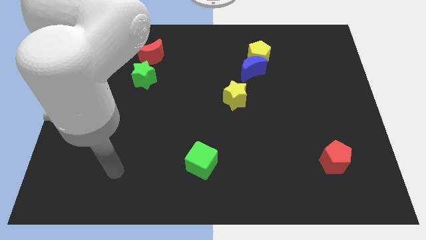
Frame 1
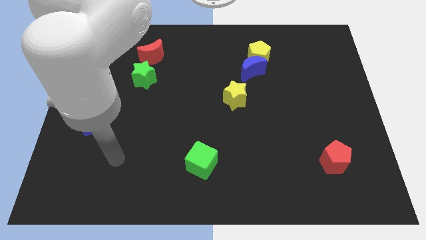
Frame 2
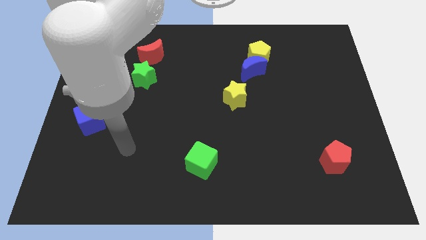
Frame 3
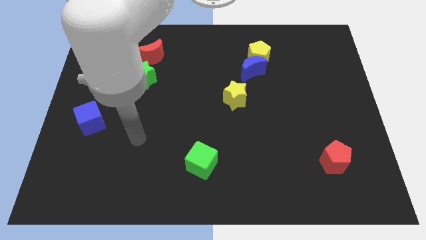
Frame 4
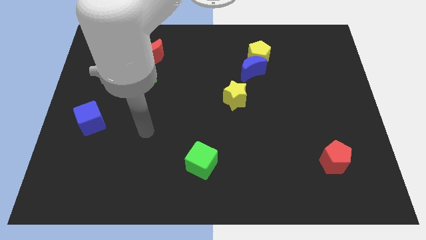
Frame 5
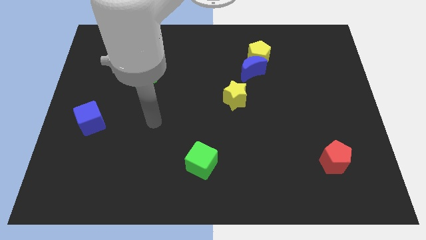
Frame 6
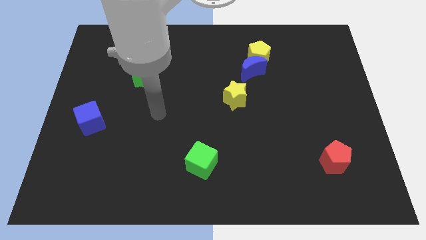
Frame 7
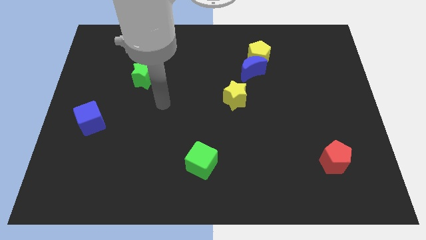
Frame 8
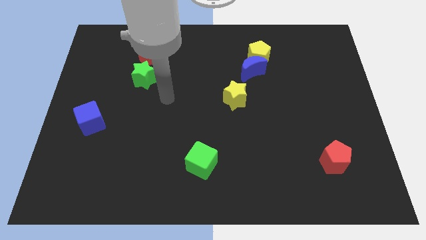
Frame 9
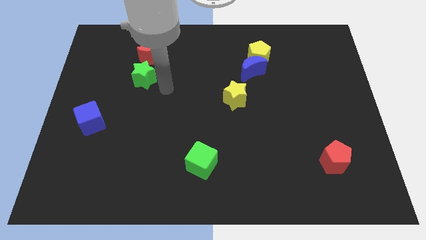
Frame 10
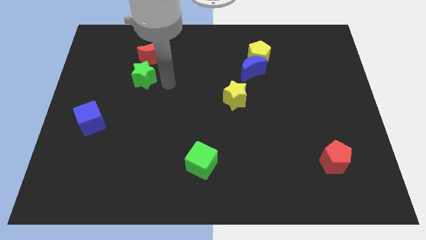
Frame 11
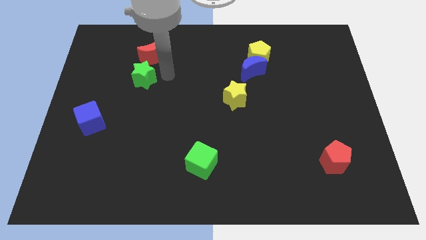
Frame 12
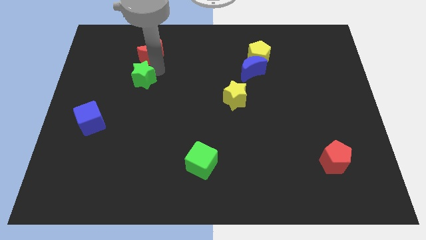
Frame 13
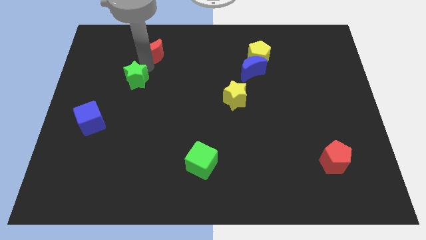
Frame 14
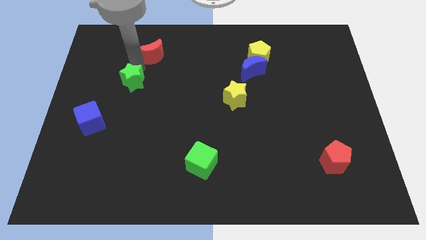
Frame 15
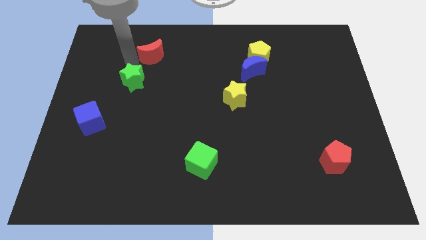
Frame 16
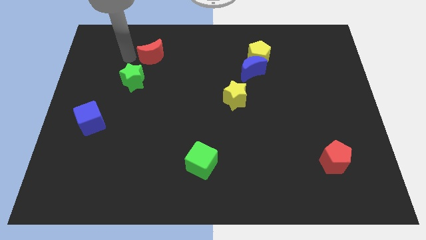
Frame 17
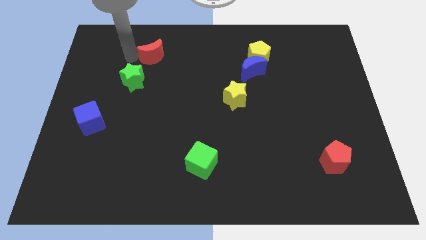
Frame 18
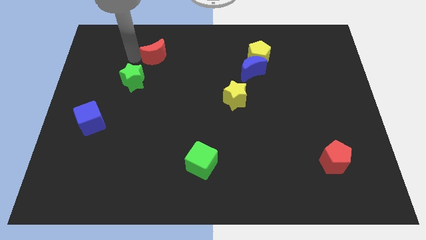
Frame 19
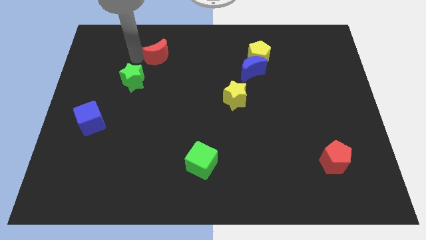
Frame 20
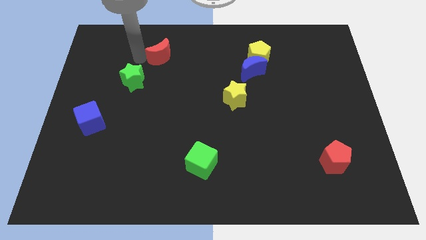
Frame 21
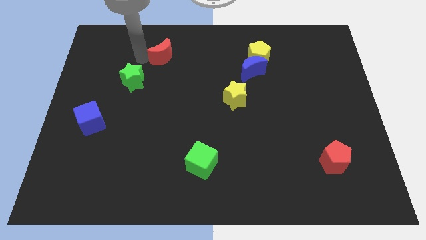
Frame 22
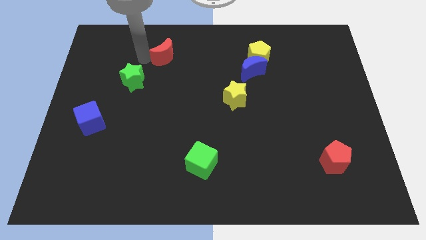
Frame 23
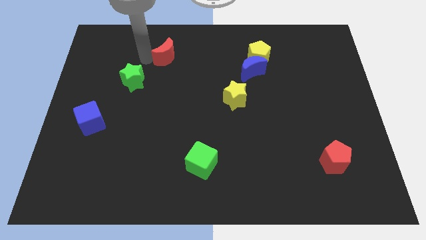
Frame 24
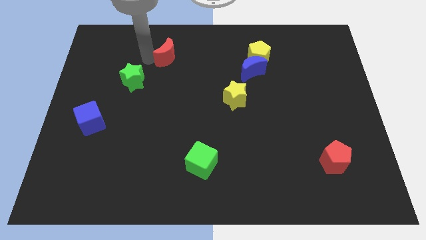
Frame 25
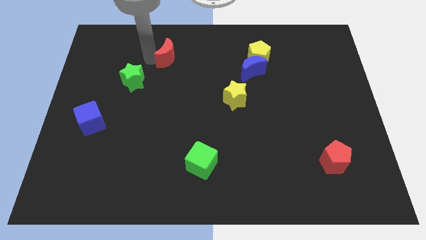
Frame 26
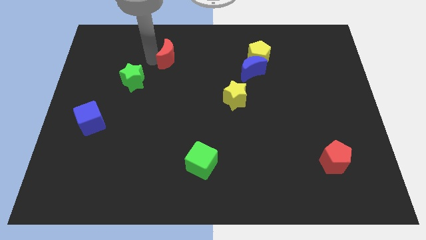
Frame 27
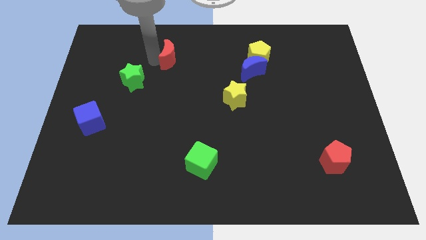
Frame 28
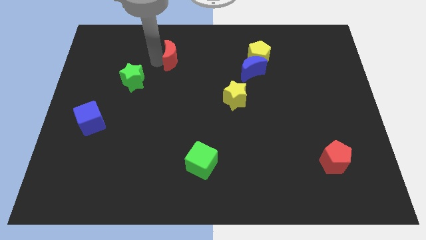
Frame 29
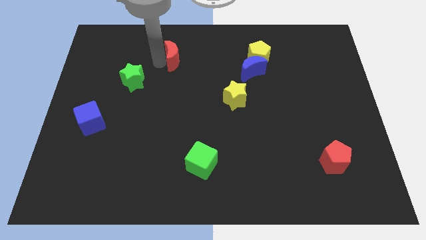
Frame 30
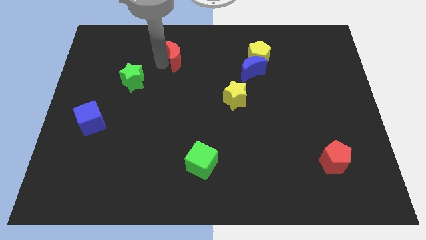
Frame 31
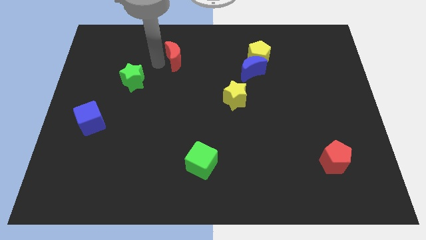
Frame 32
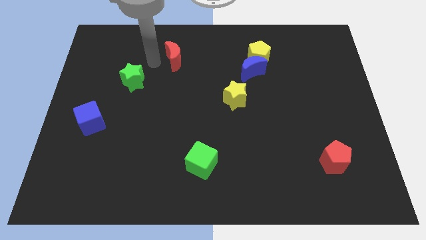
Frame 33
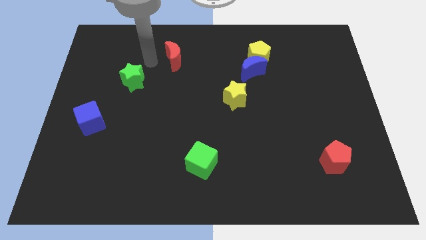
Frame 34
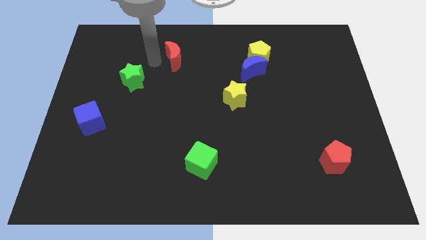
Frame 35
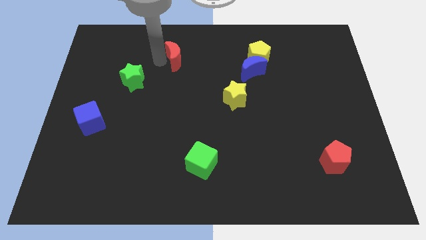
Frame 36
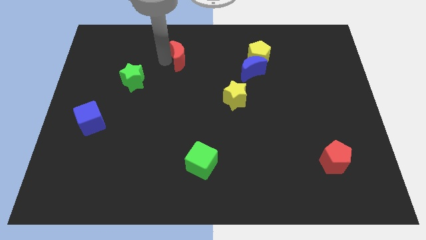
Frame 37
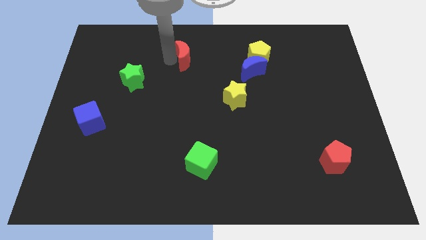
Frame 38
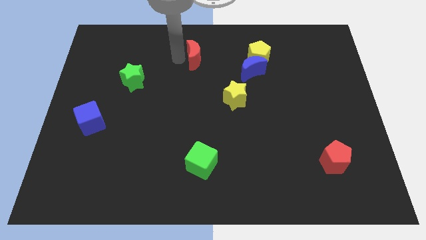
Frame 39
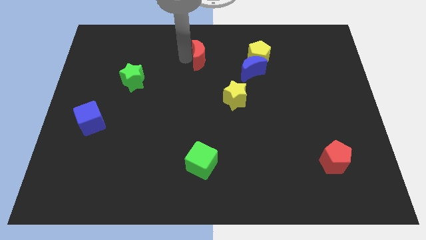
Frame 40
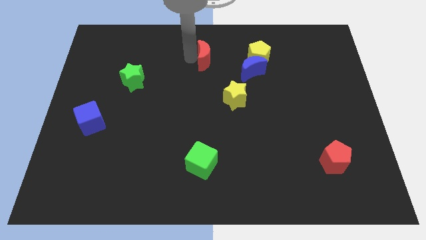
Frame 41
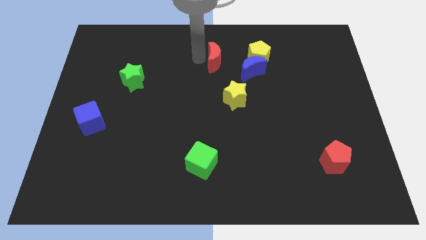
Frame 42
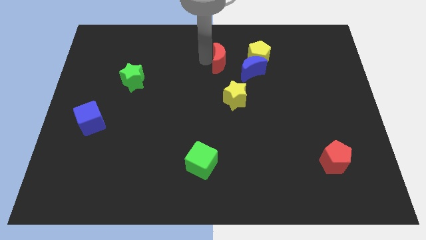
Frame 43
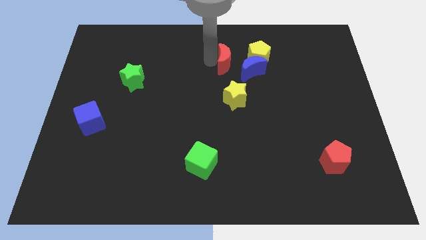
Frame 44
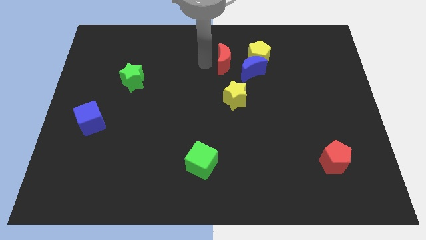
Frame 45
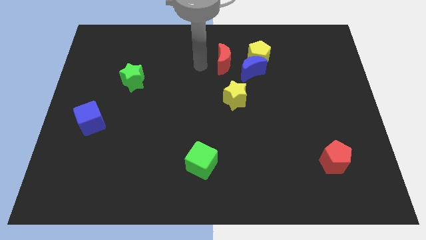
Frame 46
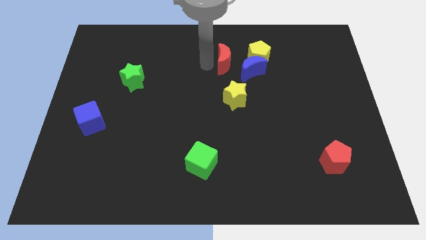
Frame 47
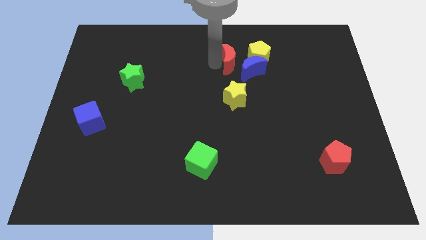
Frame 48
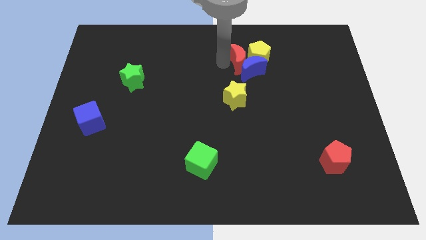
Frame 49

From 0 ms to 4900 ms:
push the red moon next to the yellow pentagon

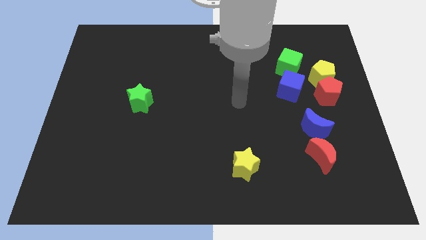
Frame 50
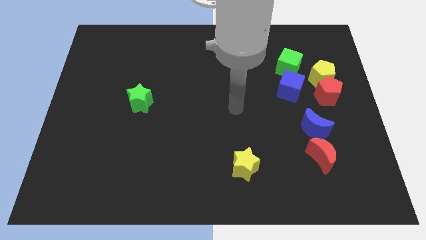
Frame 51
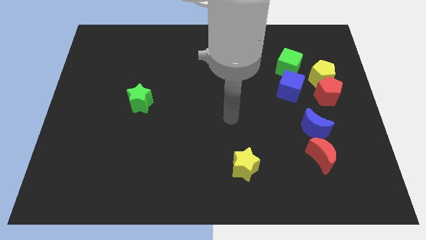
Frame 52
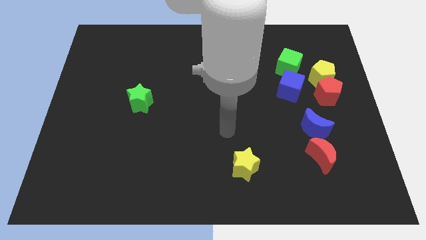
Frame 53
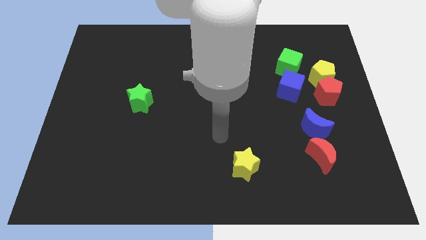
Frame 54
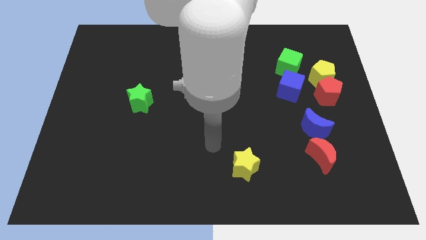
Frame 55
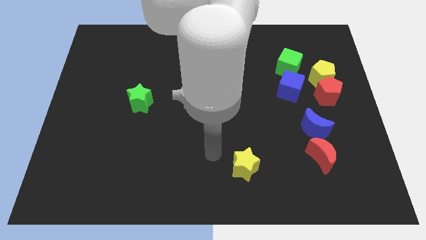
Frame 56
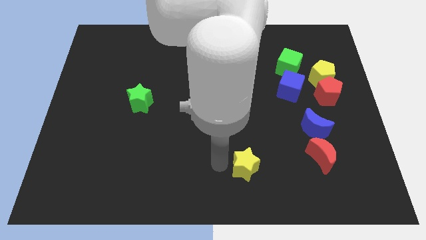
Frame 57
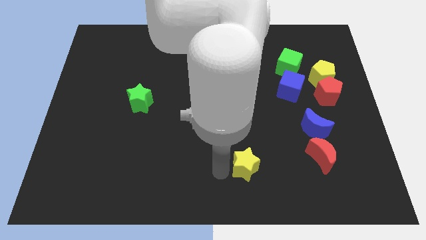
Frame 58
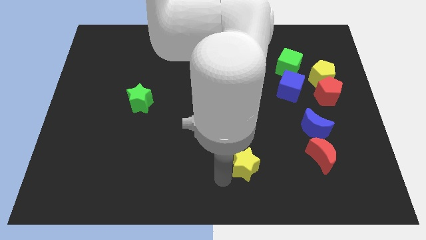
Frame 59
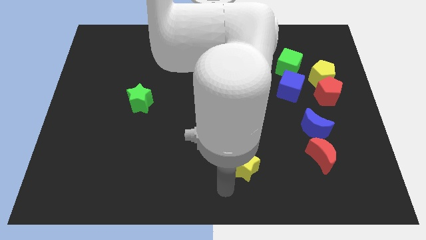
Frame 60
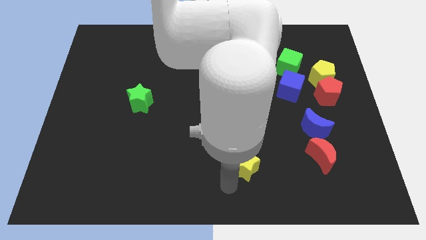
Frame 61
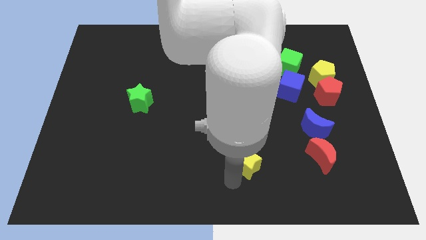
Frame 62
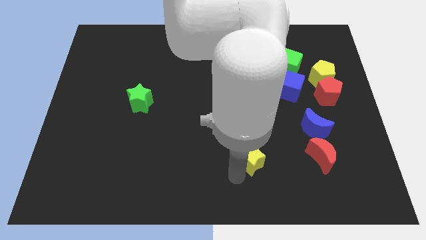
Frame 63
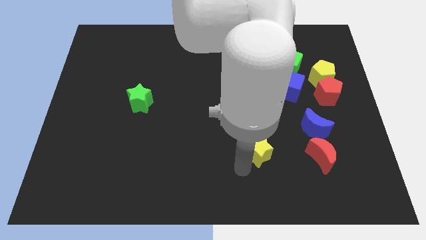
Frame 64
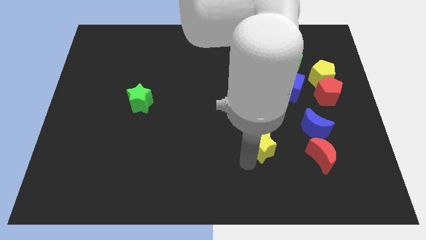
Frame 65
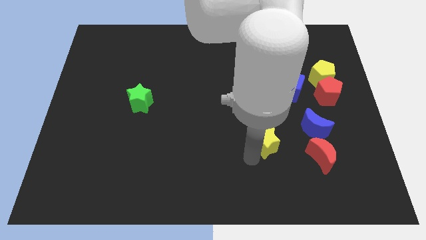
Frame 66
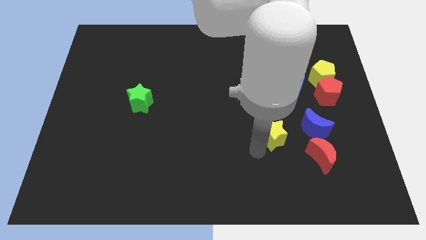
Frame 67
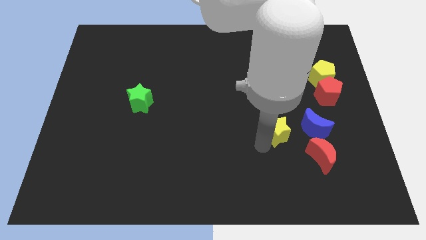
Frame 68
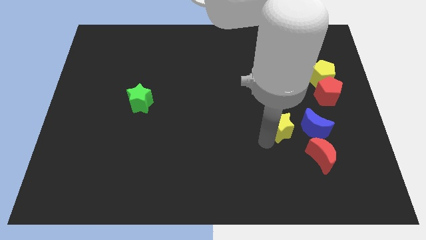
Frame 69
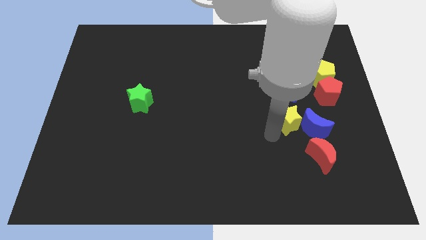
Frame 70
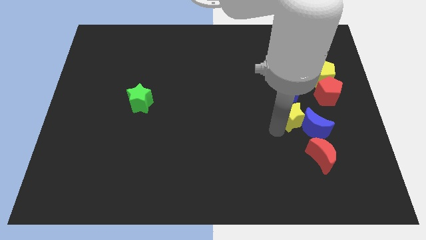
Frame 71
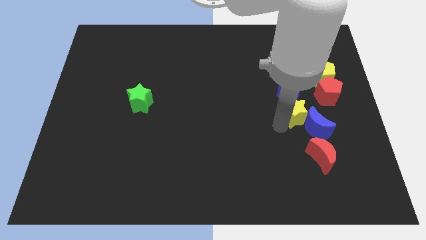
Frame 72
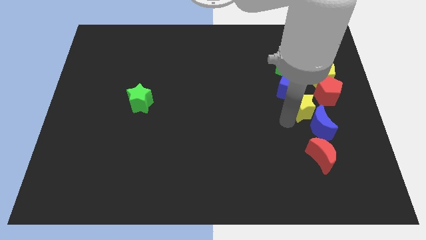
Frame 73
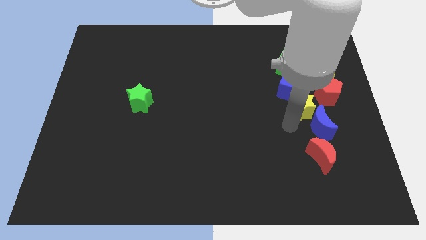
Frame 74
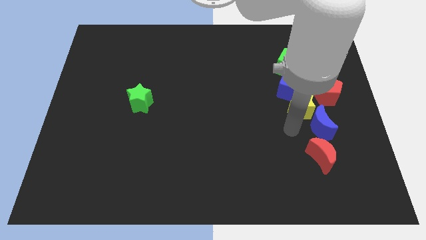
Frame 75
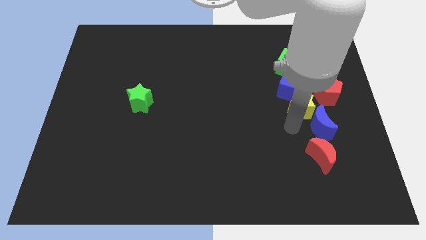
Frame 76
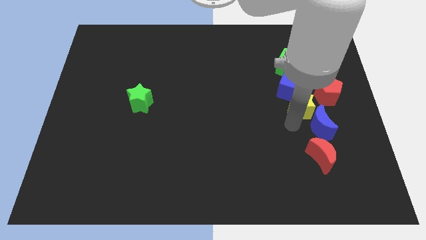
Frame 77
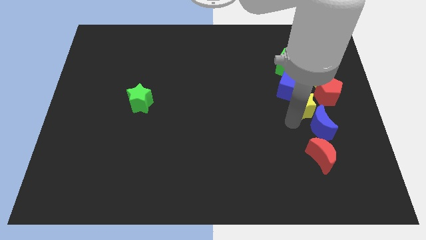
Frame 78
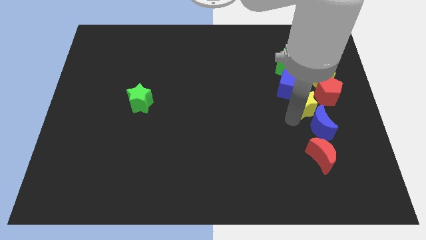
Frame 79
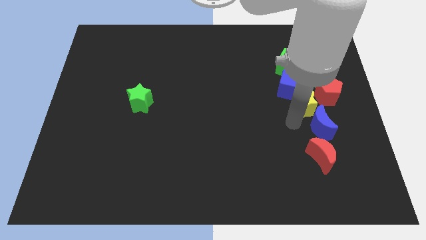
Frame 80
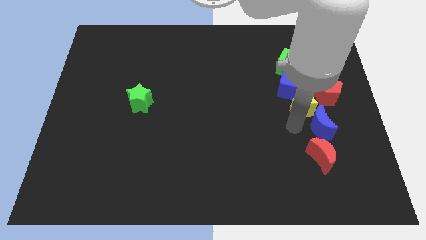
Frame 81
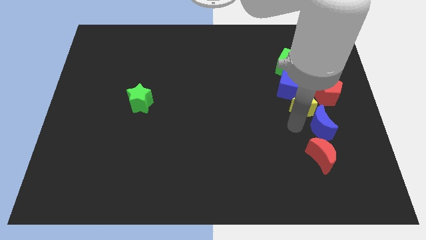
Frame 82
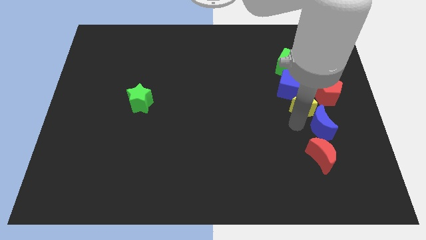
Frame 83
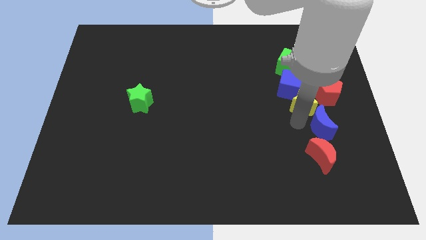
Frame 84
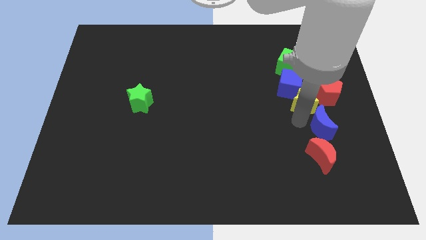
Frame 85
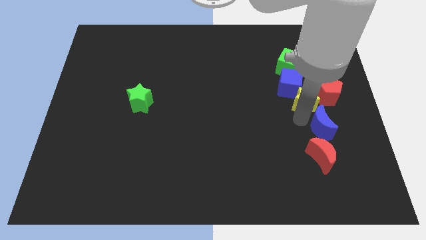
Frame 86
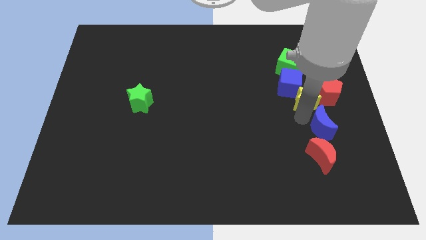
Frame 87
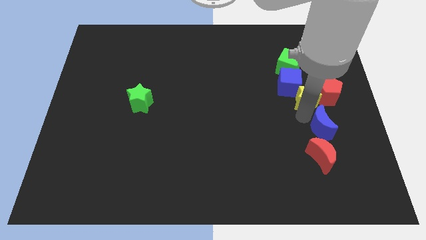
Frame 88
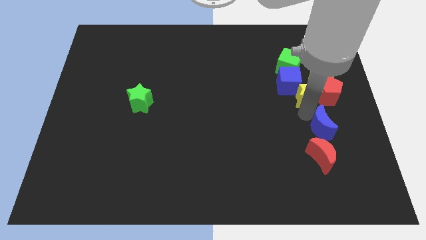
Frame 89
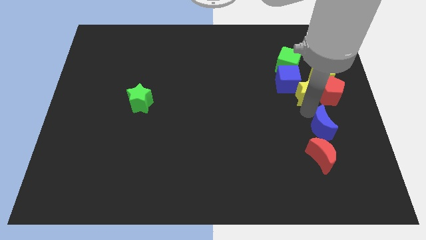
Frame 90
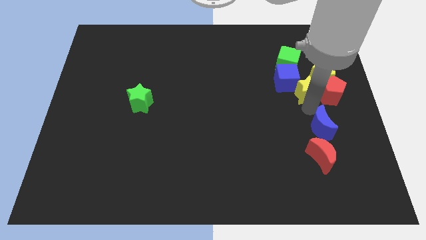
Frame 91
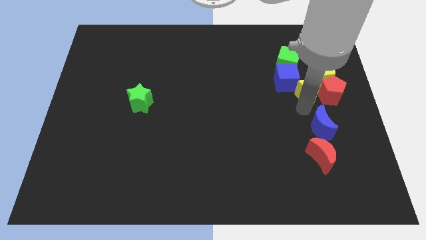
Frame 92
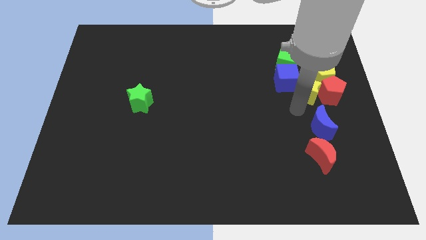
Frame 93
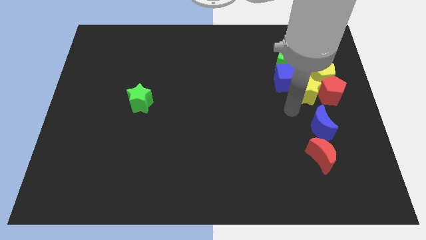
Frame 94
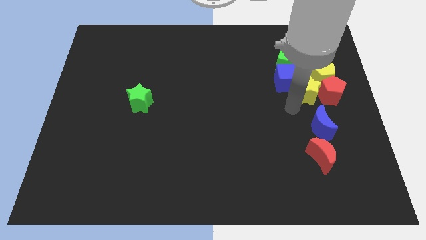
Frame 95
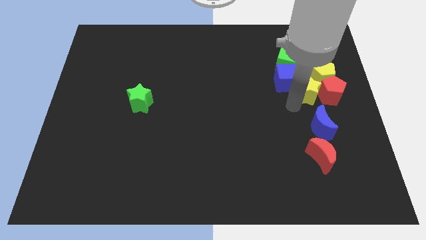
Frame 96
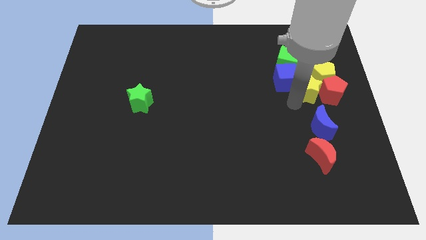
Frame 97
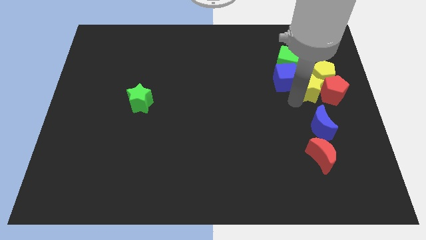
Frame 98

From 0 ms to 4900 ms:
put the yellow star to the yellow pentagon
